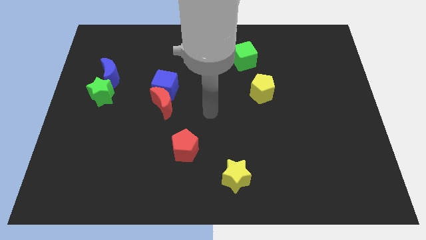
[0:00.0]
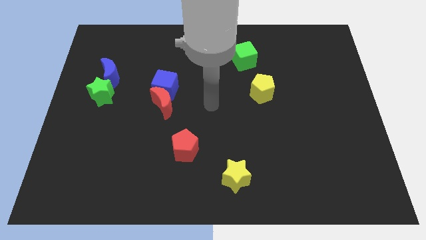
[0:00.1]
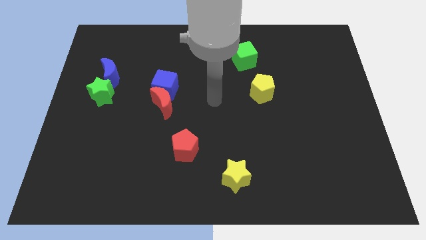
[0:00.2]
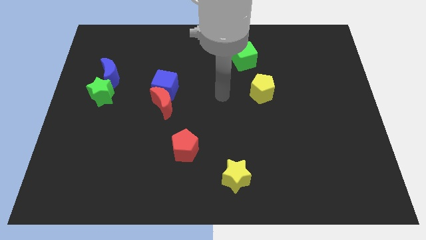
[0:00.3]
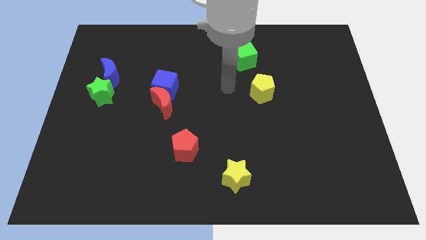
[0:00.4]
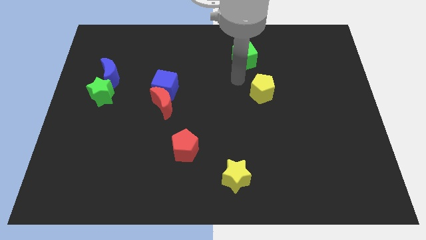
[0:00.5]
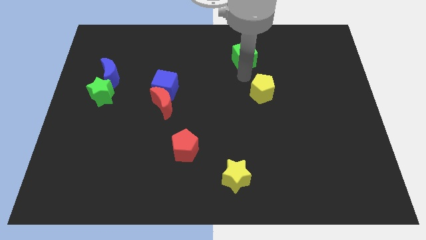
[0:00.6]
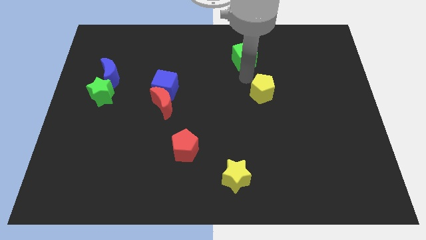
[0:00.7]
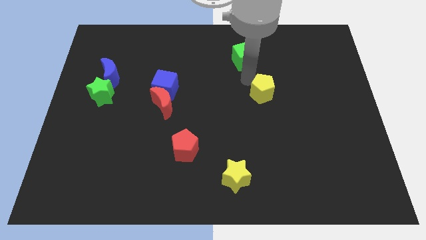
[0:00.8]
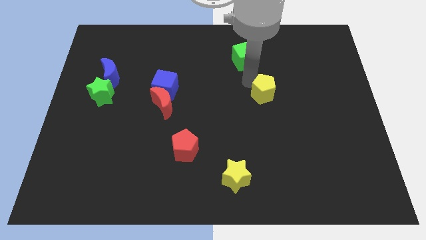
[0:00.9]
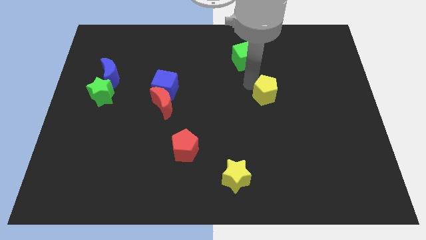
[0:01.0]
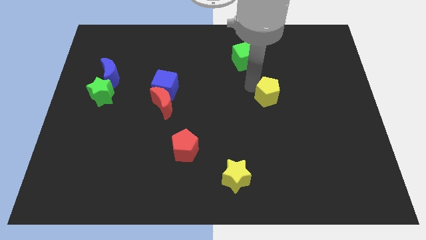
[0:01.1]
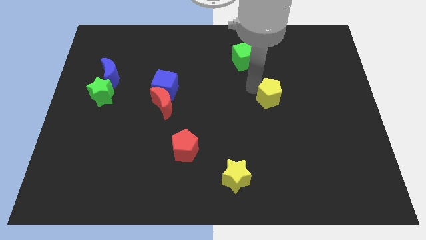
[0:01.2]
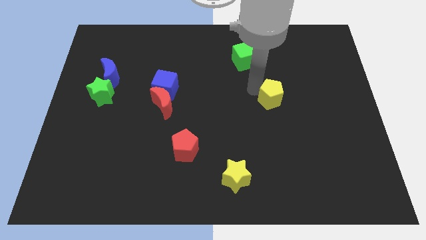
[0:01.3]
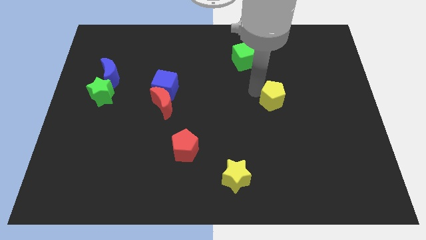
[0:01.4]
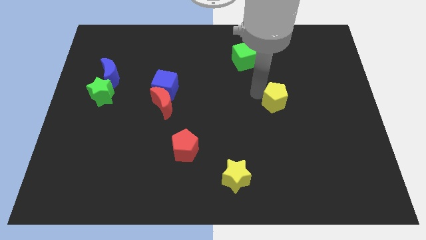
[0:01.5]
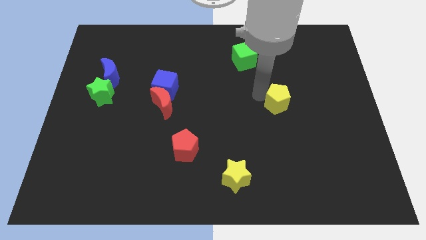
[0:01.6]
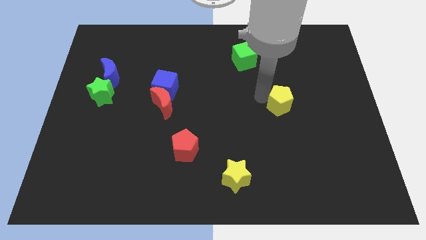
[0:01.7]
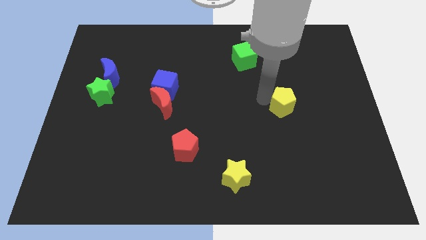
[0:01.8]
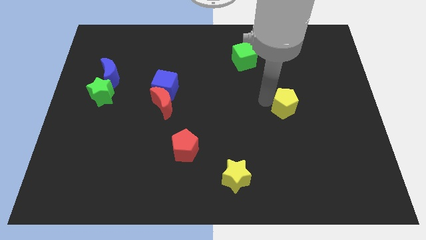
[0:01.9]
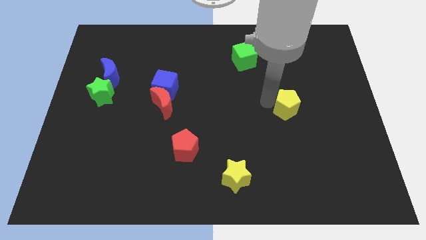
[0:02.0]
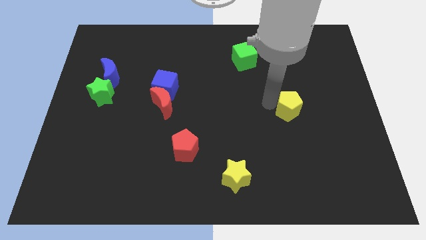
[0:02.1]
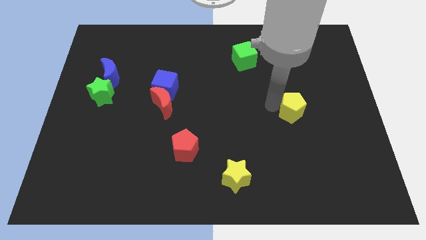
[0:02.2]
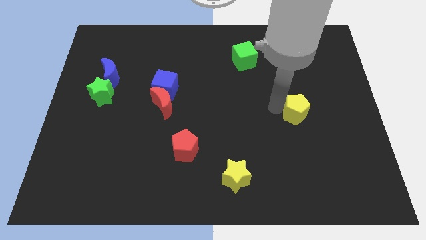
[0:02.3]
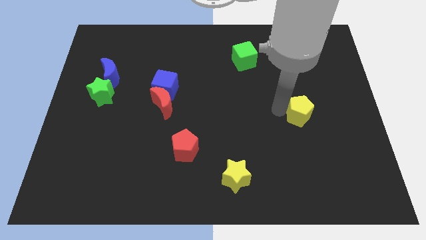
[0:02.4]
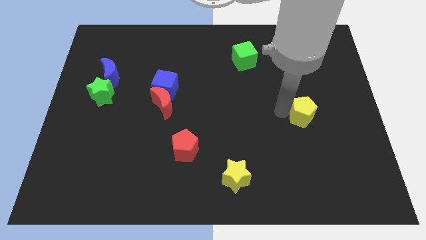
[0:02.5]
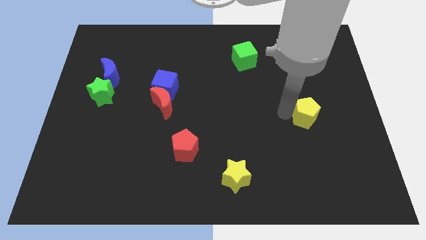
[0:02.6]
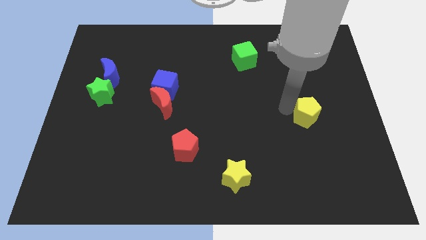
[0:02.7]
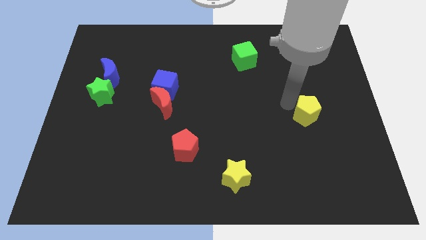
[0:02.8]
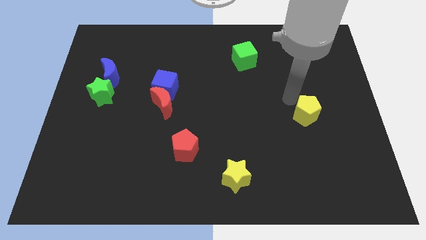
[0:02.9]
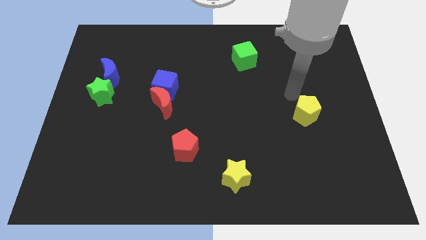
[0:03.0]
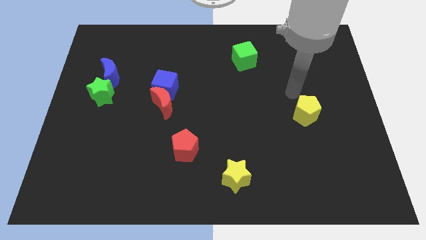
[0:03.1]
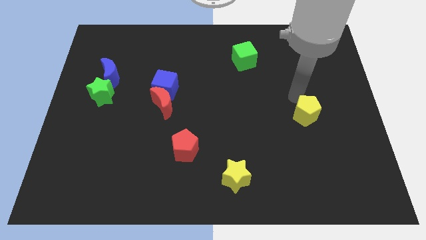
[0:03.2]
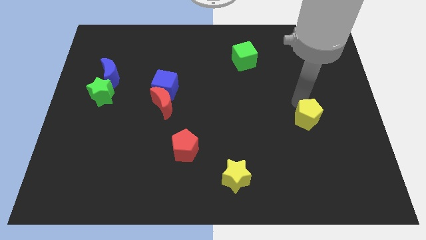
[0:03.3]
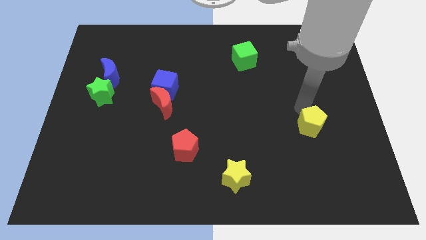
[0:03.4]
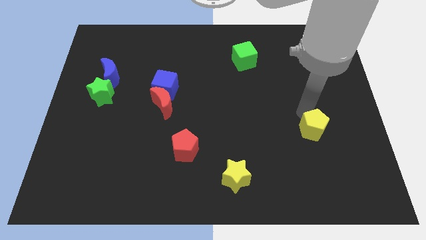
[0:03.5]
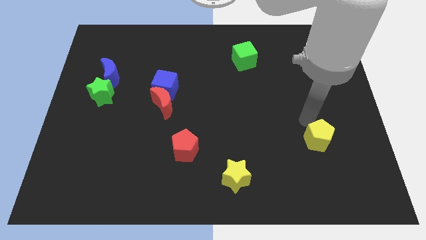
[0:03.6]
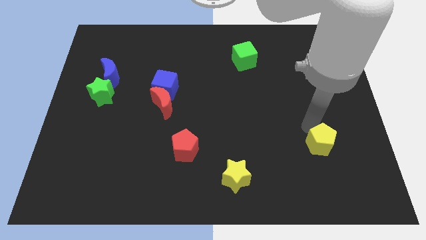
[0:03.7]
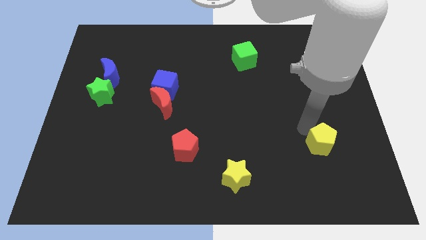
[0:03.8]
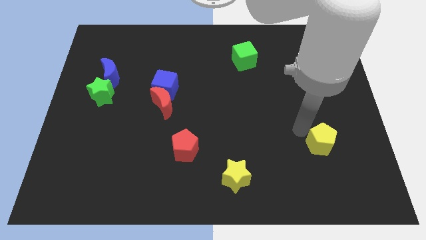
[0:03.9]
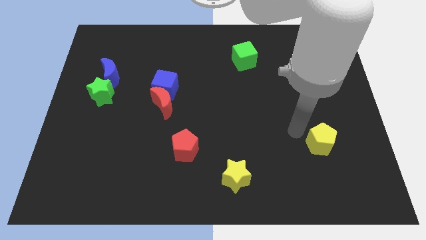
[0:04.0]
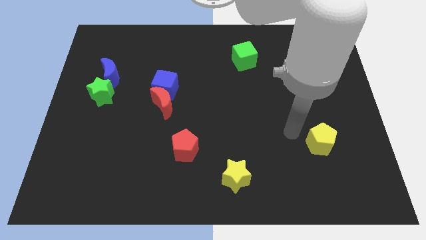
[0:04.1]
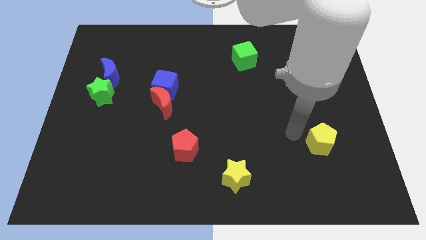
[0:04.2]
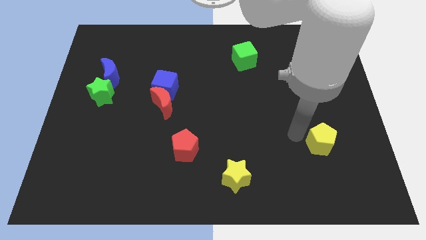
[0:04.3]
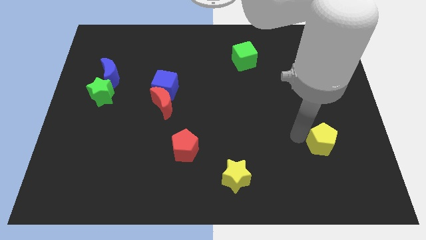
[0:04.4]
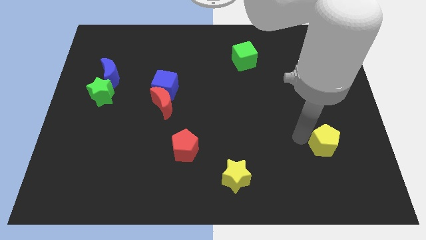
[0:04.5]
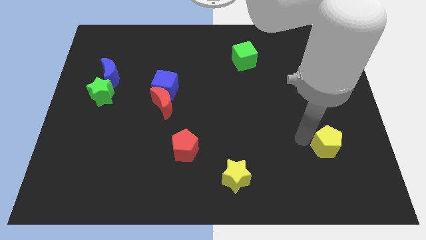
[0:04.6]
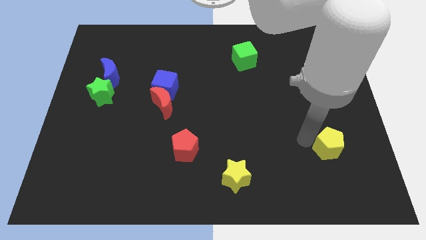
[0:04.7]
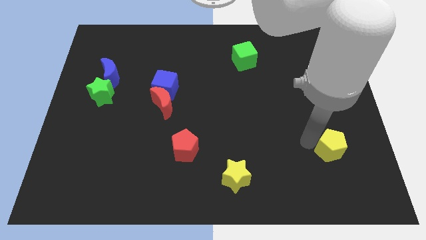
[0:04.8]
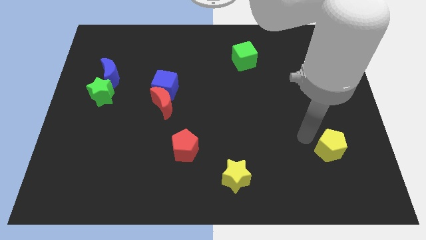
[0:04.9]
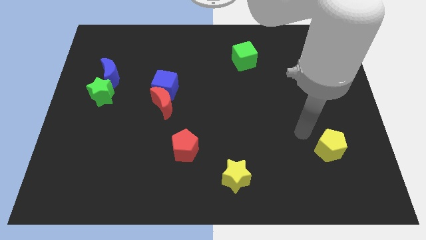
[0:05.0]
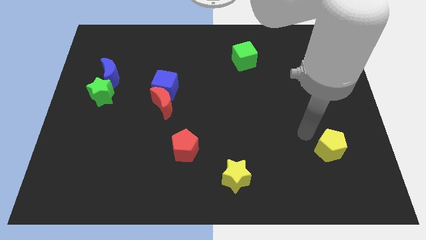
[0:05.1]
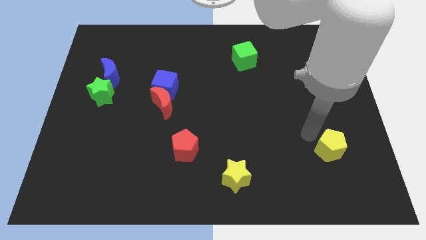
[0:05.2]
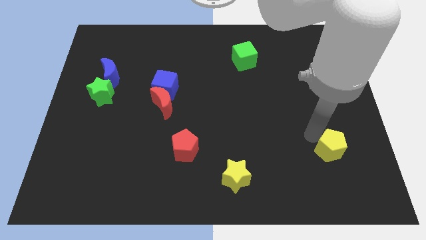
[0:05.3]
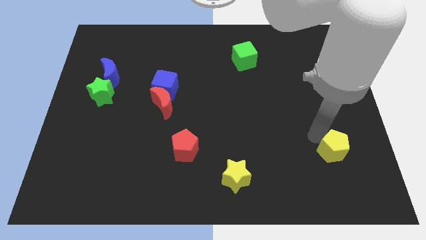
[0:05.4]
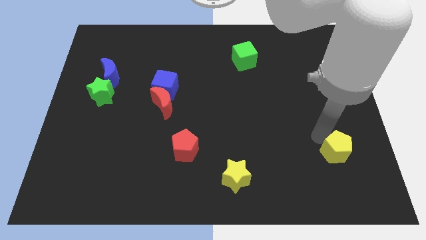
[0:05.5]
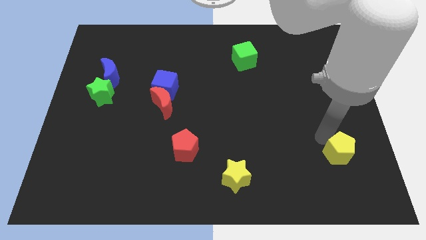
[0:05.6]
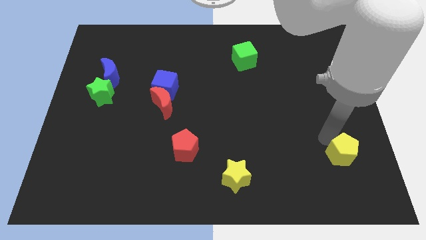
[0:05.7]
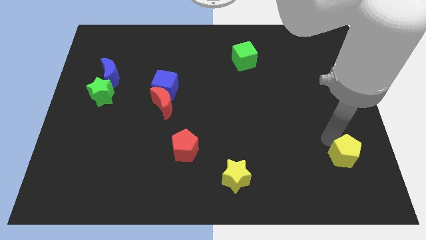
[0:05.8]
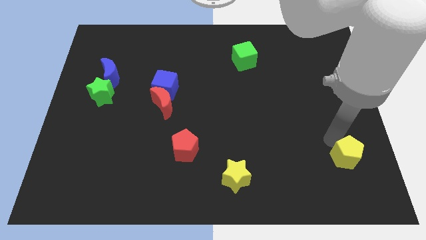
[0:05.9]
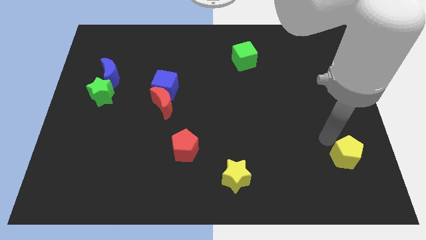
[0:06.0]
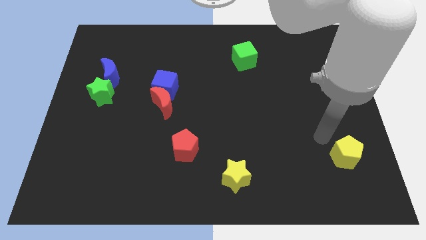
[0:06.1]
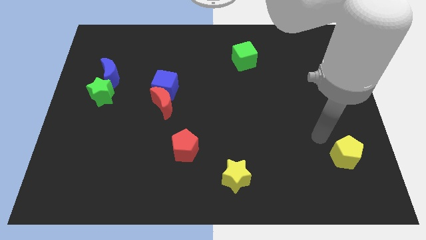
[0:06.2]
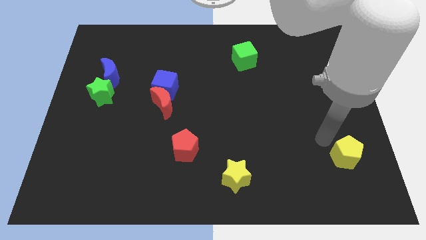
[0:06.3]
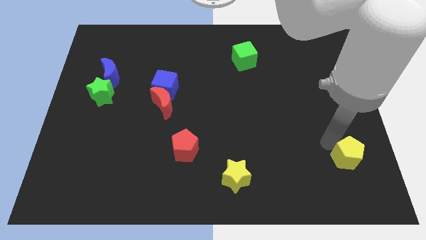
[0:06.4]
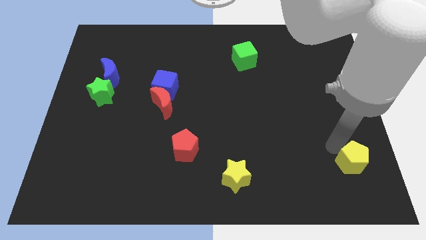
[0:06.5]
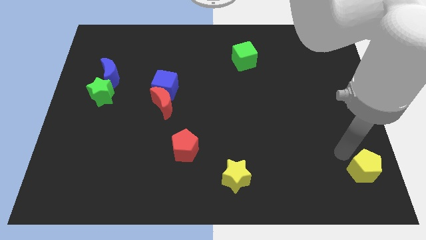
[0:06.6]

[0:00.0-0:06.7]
move the yellow pentagon to the bottom right of the board
